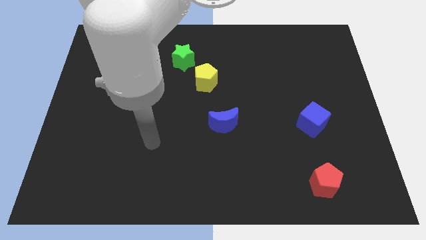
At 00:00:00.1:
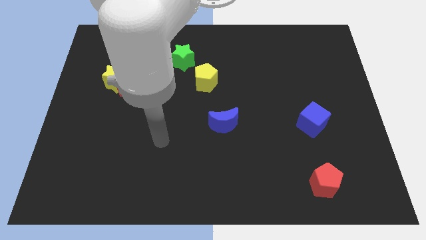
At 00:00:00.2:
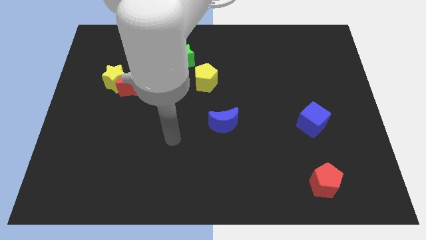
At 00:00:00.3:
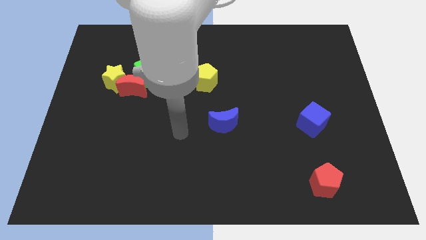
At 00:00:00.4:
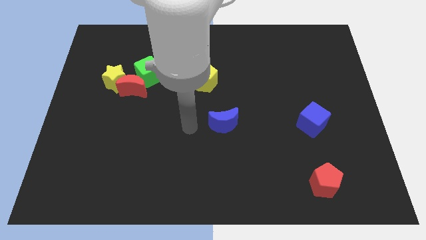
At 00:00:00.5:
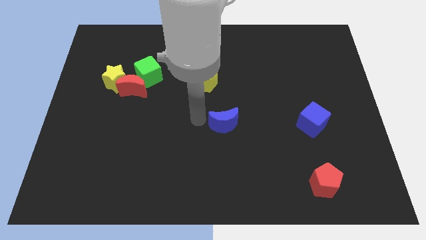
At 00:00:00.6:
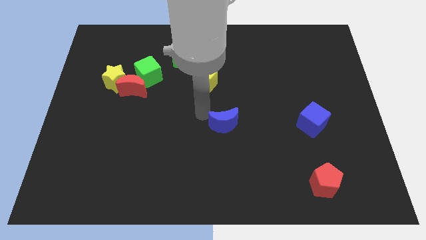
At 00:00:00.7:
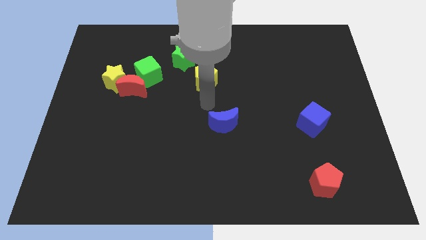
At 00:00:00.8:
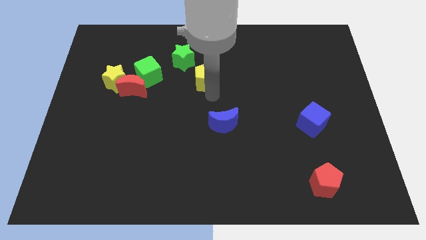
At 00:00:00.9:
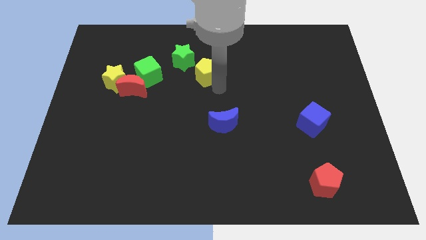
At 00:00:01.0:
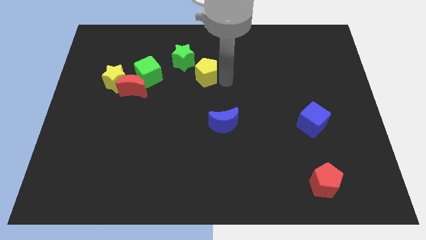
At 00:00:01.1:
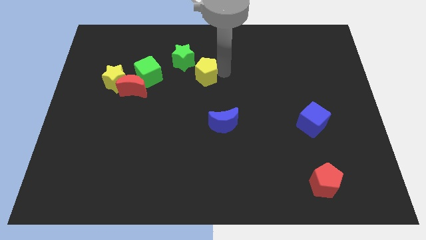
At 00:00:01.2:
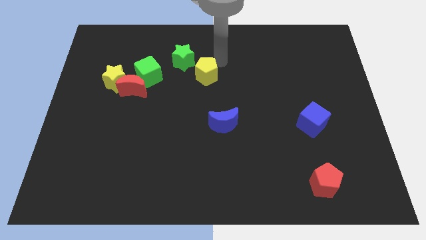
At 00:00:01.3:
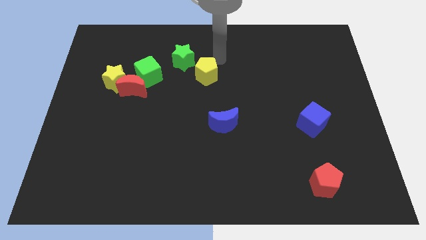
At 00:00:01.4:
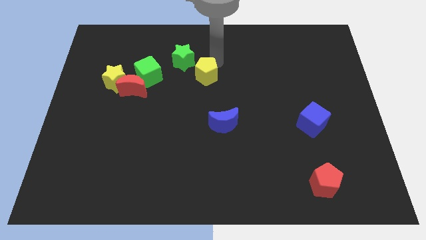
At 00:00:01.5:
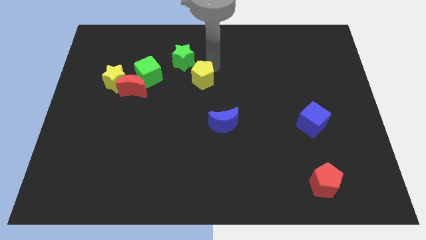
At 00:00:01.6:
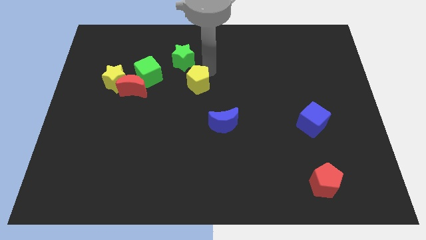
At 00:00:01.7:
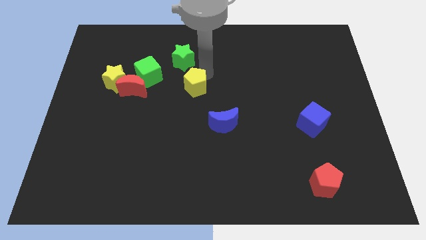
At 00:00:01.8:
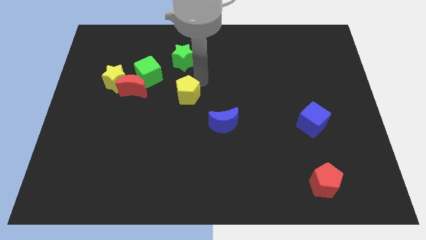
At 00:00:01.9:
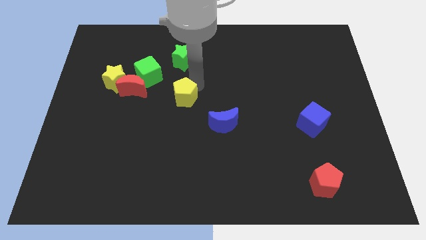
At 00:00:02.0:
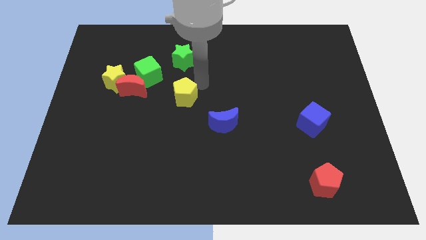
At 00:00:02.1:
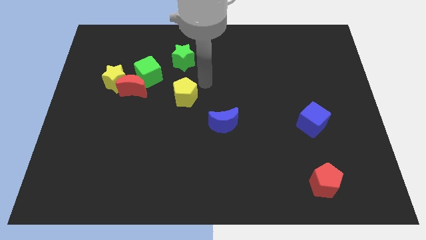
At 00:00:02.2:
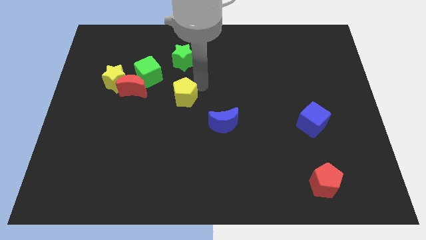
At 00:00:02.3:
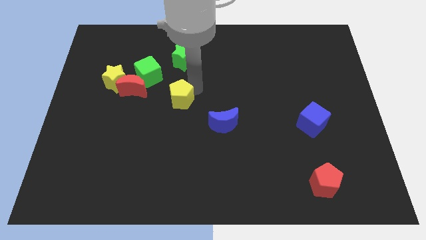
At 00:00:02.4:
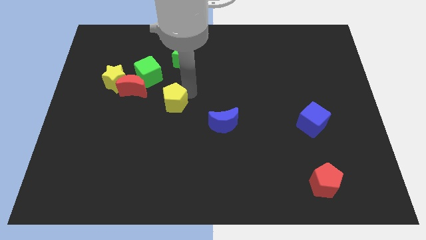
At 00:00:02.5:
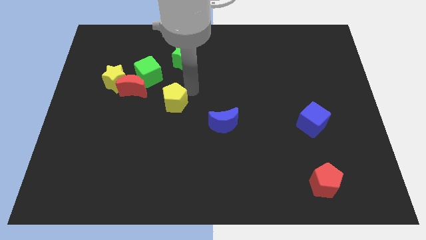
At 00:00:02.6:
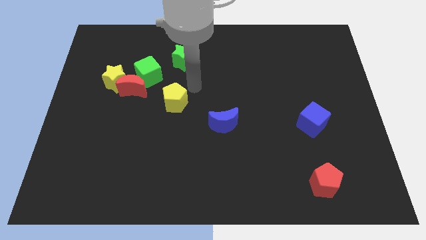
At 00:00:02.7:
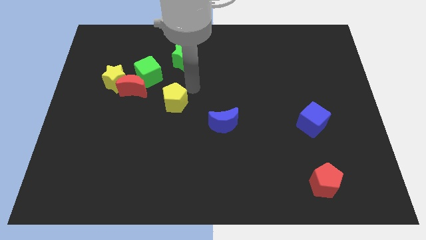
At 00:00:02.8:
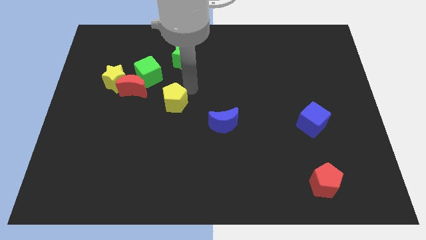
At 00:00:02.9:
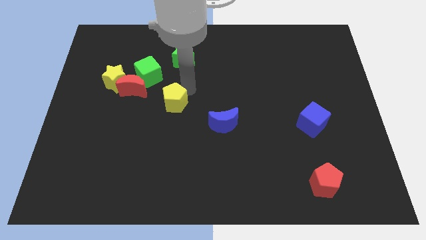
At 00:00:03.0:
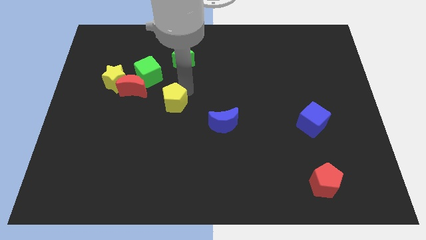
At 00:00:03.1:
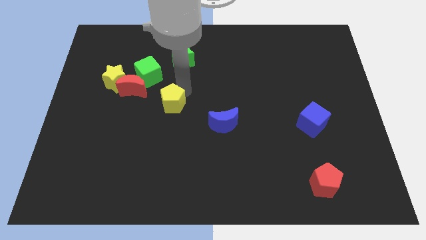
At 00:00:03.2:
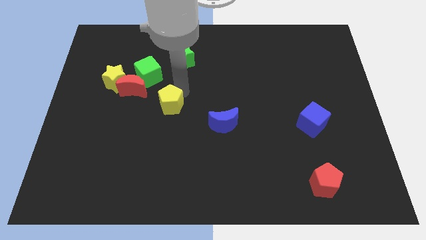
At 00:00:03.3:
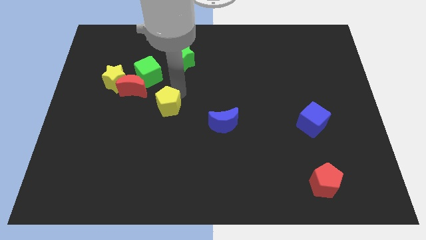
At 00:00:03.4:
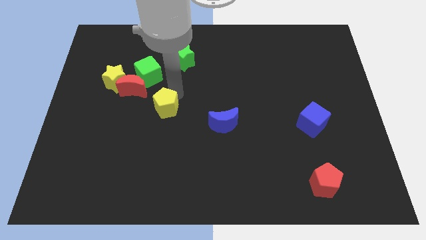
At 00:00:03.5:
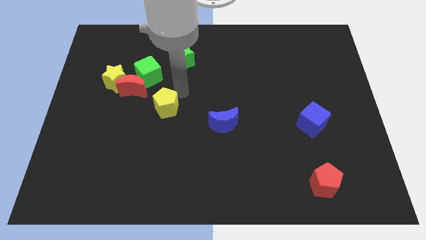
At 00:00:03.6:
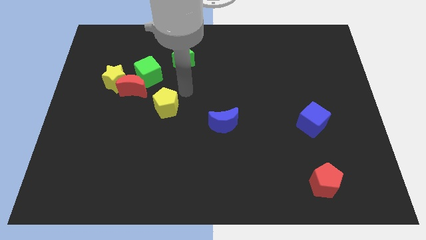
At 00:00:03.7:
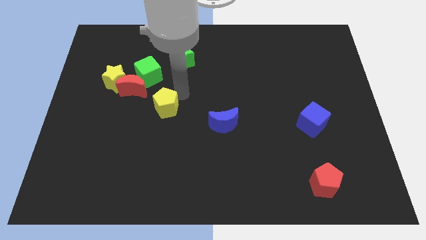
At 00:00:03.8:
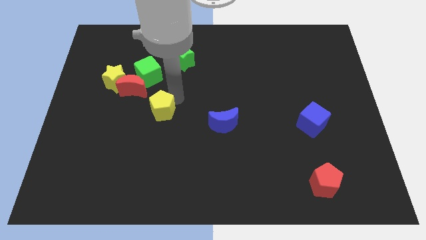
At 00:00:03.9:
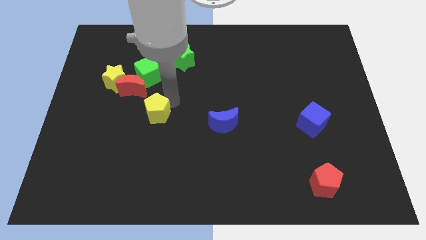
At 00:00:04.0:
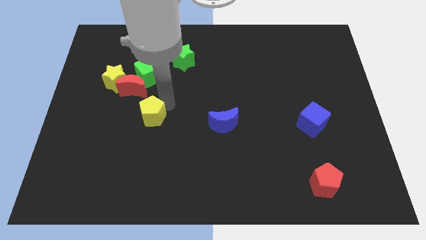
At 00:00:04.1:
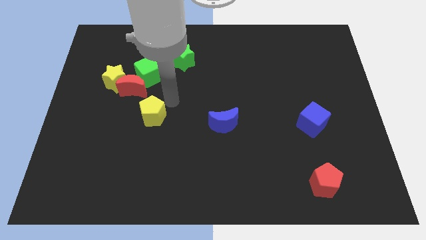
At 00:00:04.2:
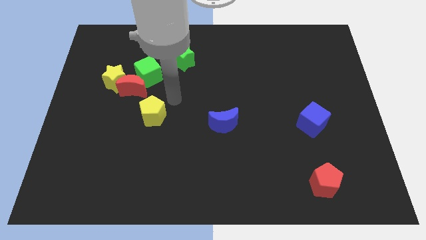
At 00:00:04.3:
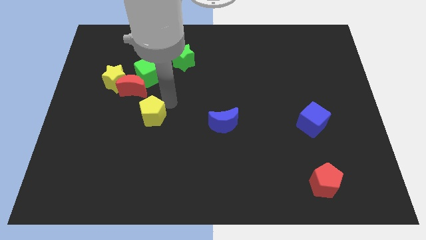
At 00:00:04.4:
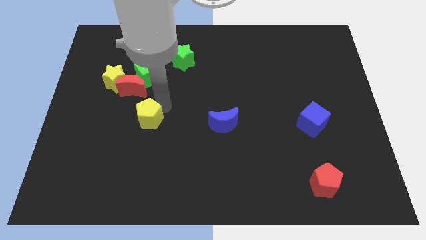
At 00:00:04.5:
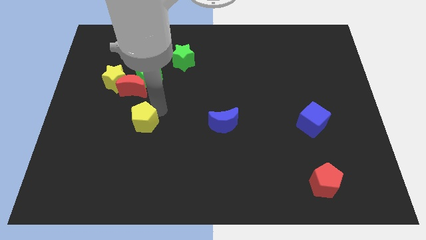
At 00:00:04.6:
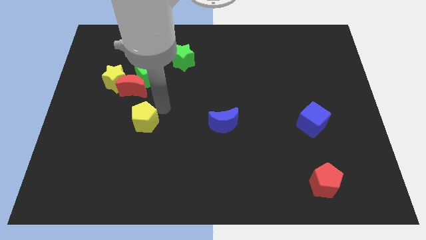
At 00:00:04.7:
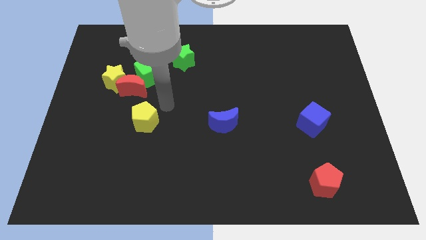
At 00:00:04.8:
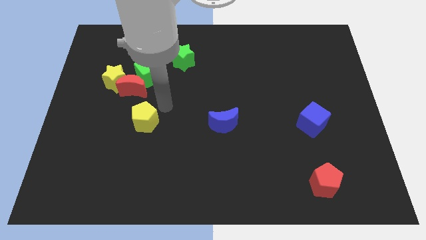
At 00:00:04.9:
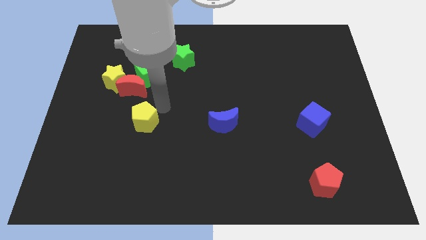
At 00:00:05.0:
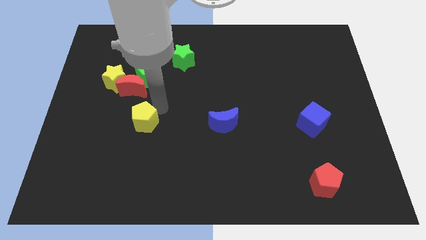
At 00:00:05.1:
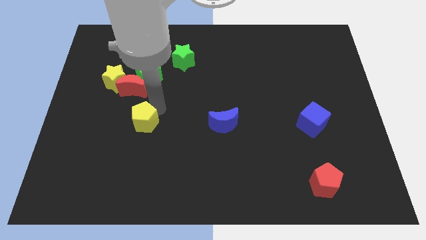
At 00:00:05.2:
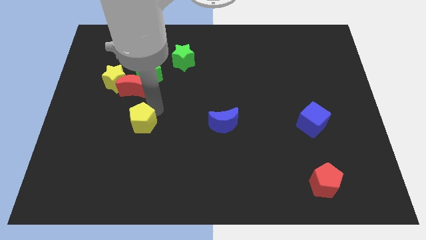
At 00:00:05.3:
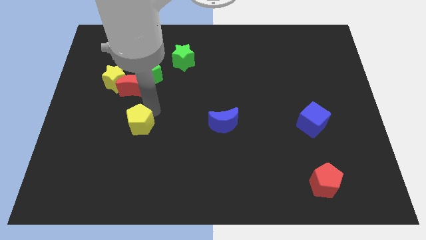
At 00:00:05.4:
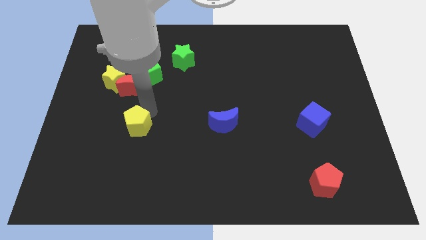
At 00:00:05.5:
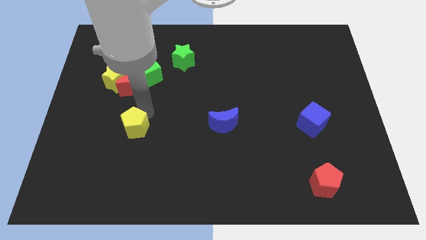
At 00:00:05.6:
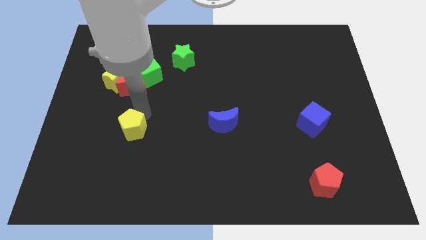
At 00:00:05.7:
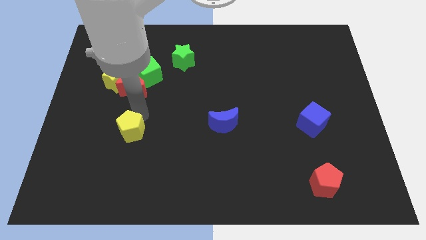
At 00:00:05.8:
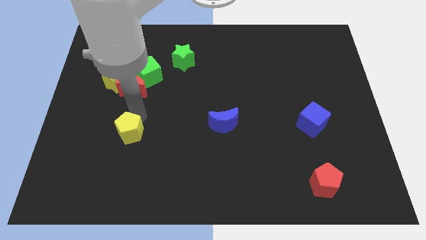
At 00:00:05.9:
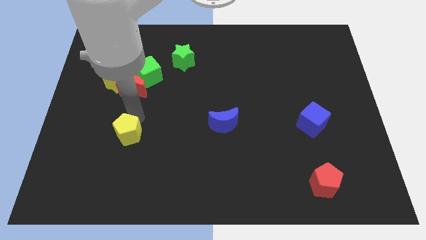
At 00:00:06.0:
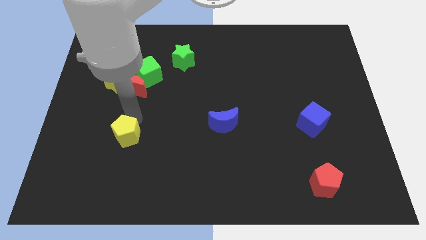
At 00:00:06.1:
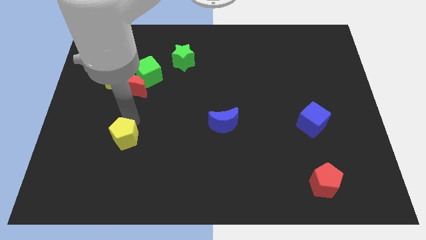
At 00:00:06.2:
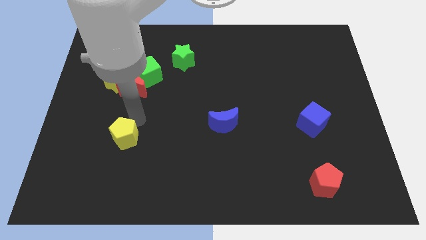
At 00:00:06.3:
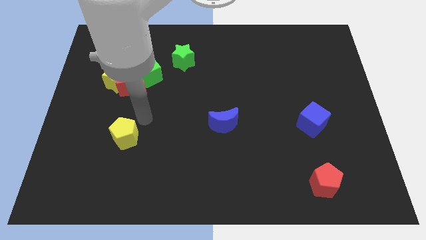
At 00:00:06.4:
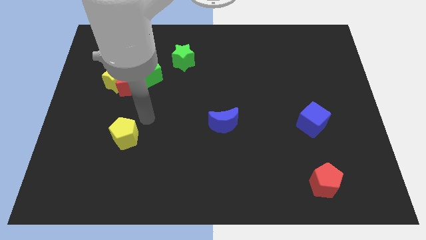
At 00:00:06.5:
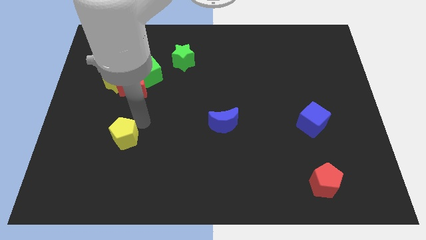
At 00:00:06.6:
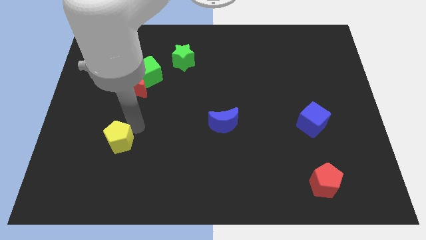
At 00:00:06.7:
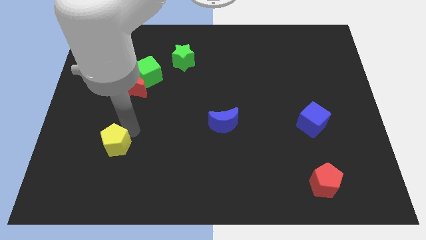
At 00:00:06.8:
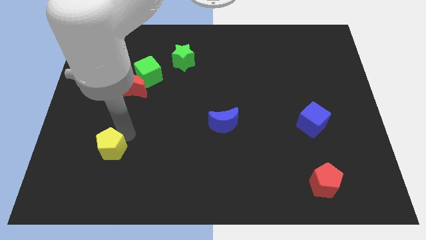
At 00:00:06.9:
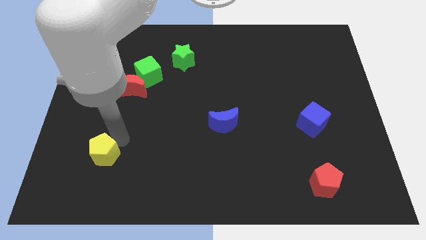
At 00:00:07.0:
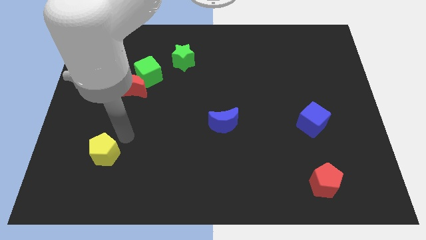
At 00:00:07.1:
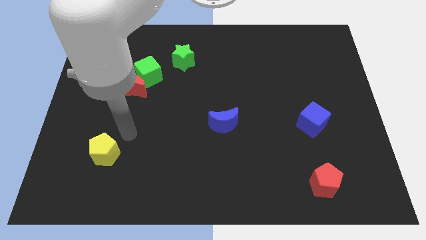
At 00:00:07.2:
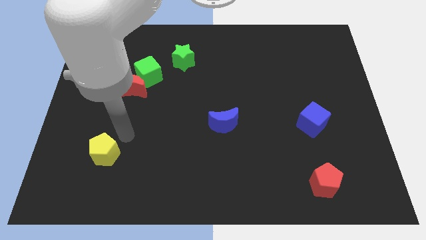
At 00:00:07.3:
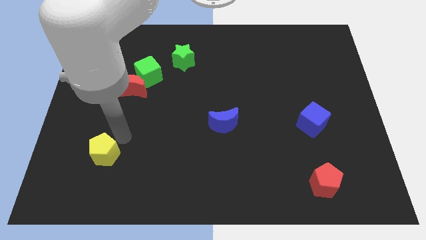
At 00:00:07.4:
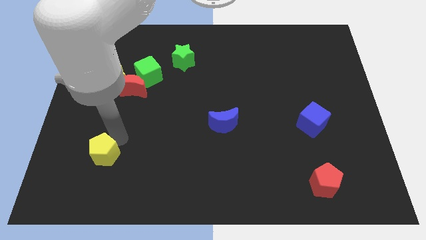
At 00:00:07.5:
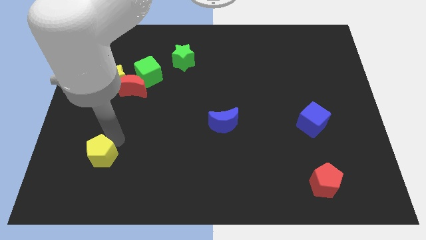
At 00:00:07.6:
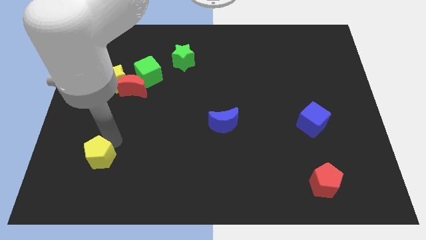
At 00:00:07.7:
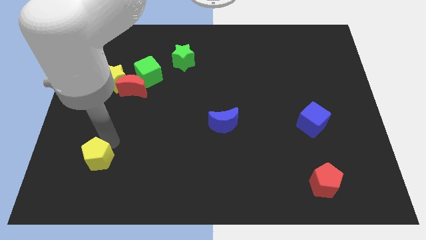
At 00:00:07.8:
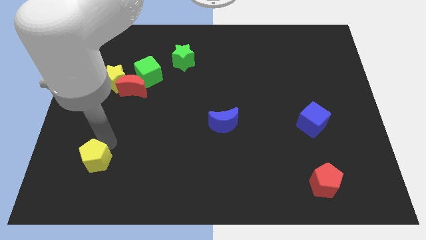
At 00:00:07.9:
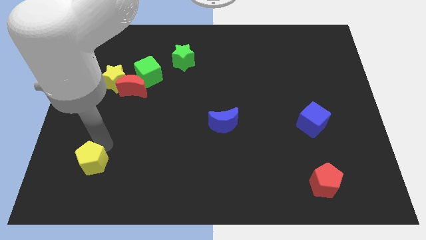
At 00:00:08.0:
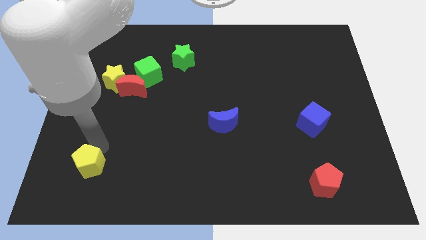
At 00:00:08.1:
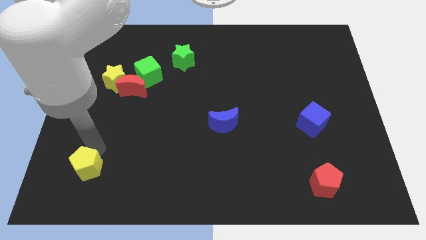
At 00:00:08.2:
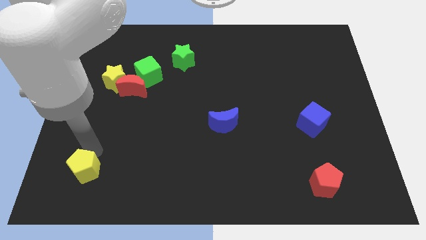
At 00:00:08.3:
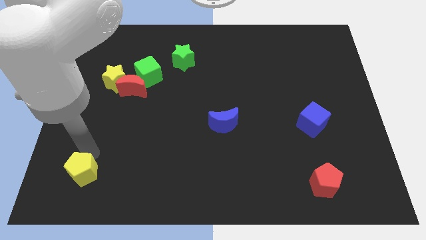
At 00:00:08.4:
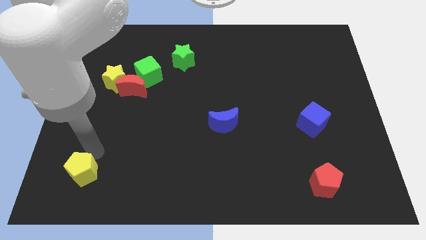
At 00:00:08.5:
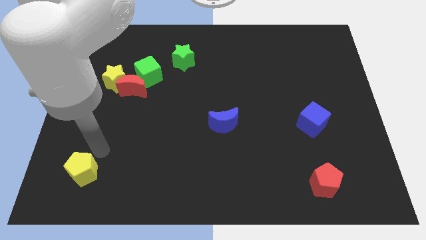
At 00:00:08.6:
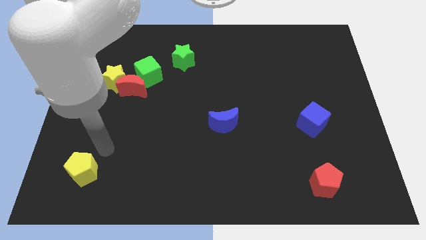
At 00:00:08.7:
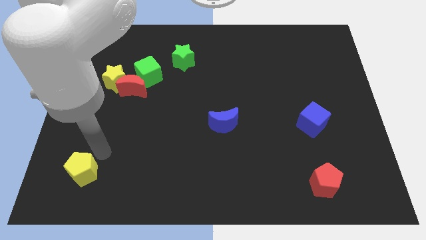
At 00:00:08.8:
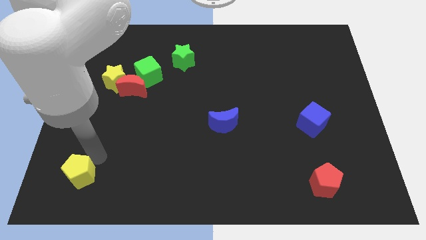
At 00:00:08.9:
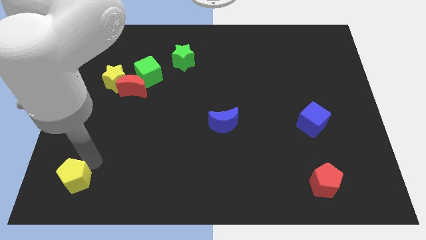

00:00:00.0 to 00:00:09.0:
slide the yellow pentagon to the bottom left of the board
